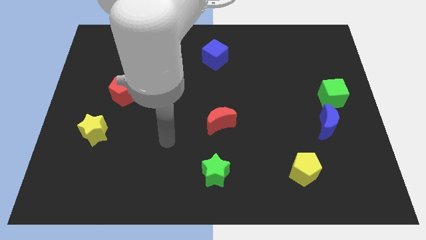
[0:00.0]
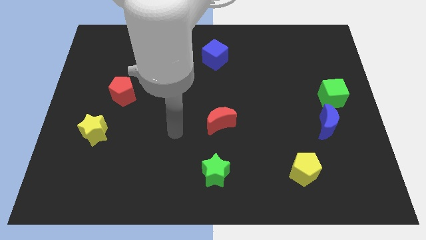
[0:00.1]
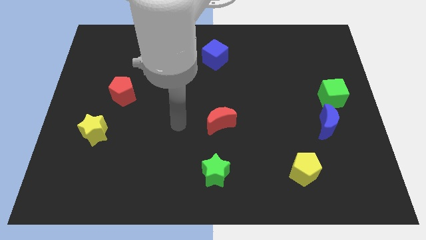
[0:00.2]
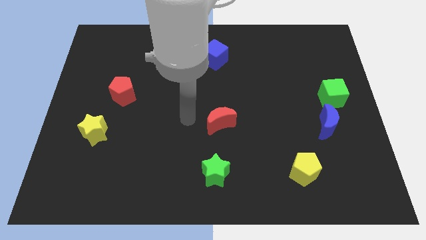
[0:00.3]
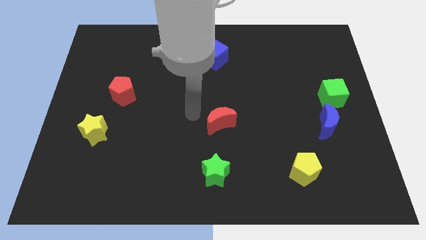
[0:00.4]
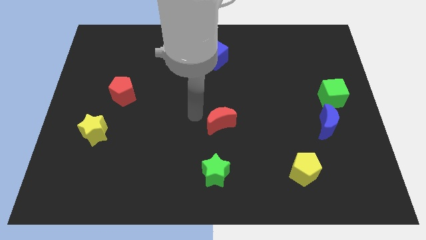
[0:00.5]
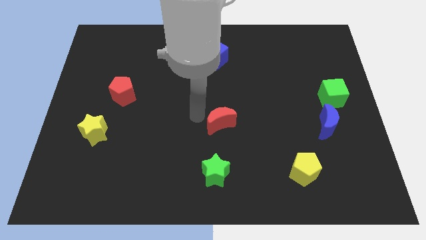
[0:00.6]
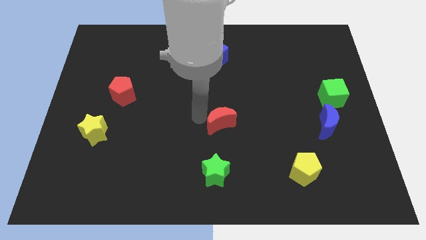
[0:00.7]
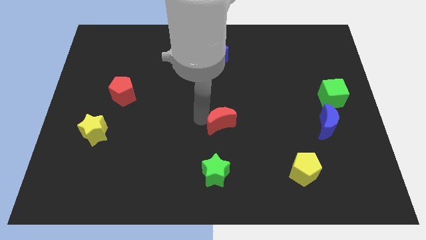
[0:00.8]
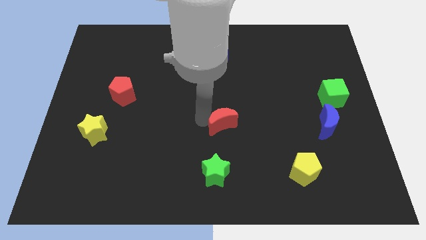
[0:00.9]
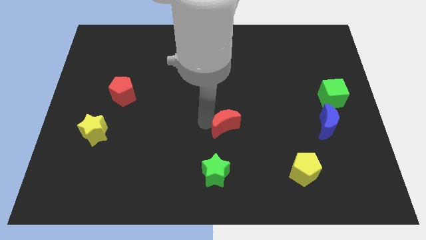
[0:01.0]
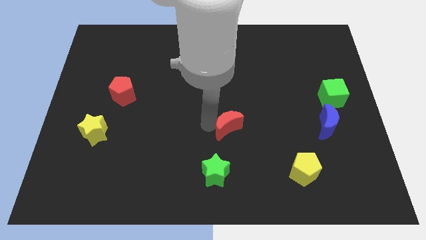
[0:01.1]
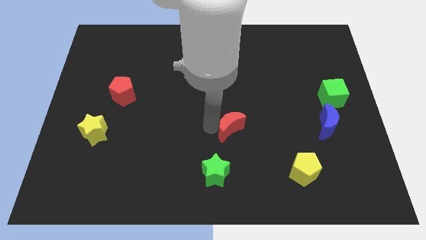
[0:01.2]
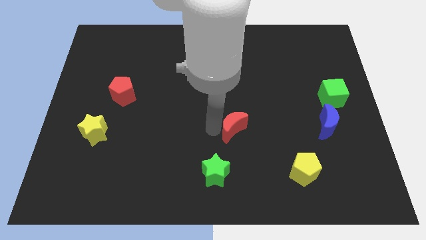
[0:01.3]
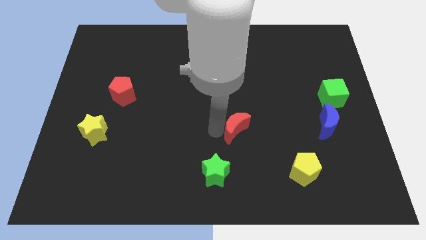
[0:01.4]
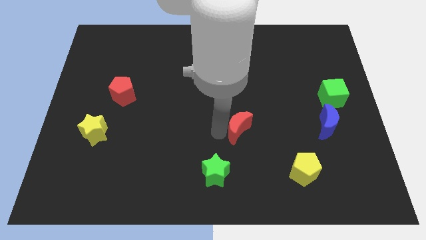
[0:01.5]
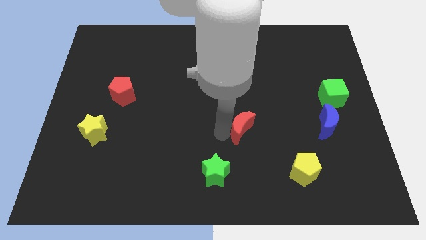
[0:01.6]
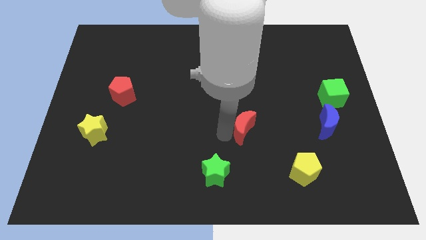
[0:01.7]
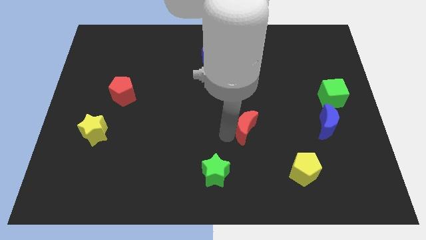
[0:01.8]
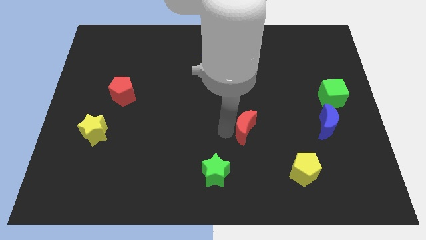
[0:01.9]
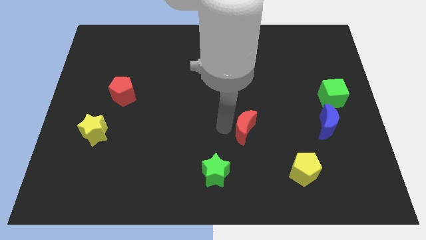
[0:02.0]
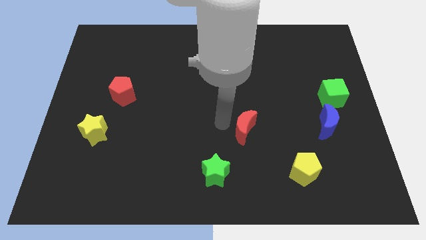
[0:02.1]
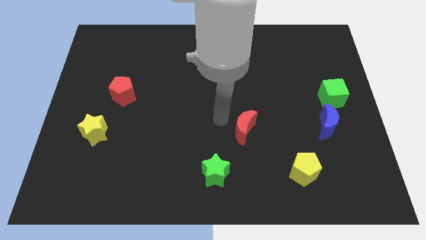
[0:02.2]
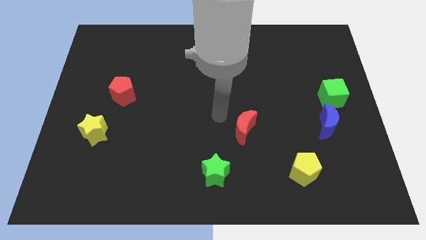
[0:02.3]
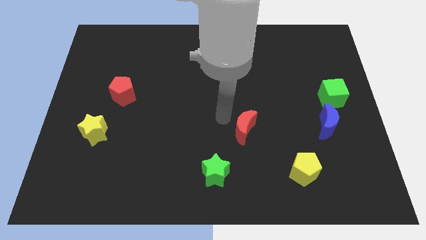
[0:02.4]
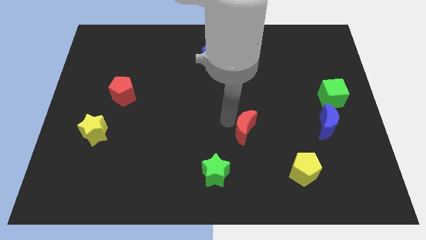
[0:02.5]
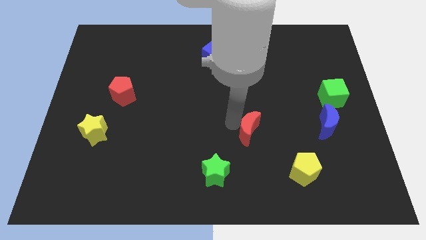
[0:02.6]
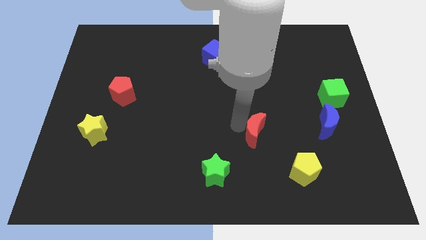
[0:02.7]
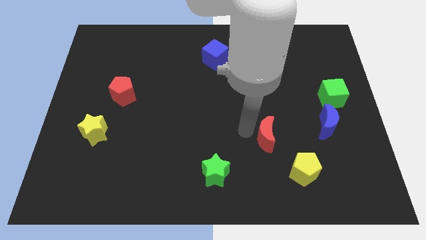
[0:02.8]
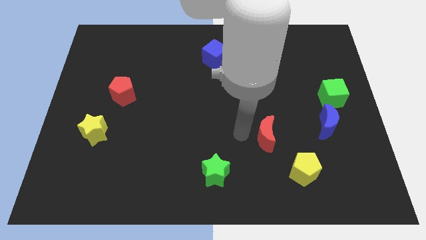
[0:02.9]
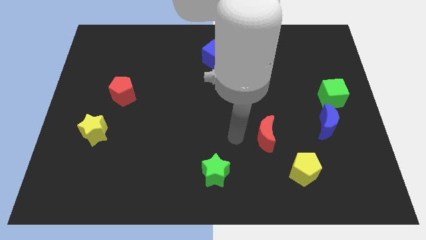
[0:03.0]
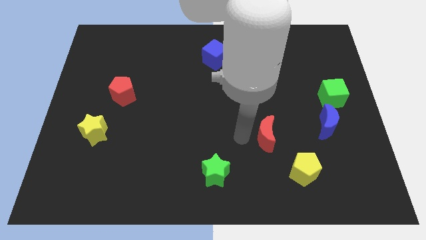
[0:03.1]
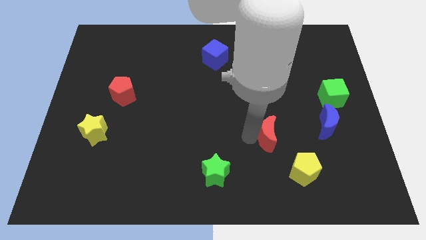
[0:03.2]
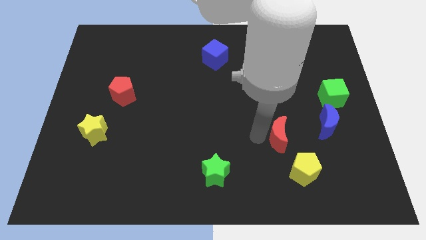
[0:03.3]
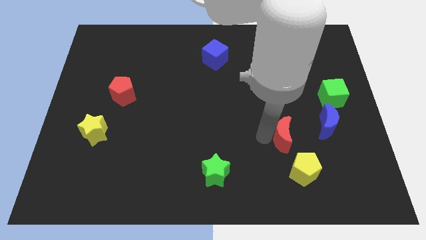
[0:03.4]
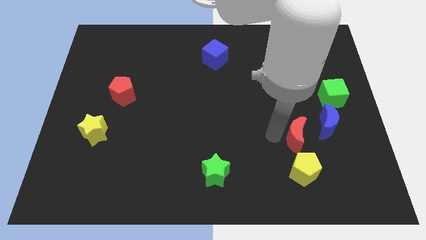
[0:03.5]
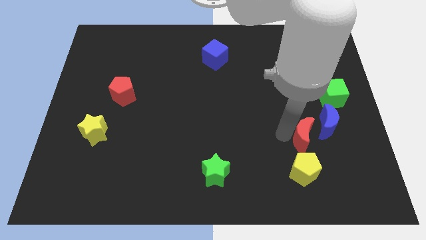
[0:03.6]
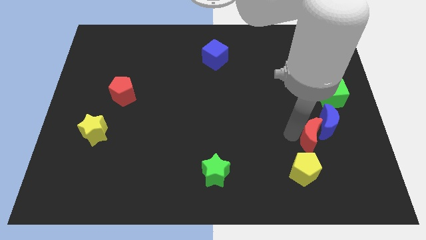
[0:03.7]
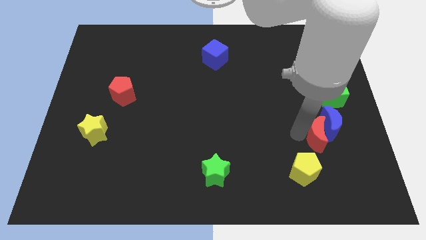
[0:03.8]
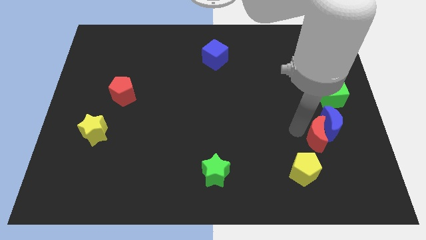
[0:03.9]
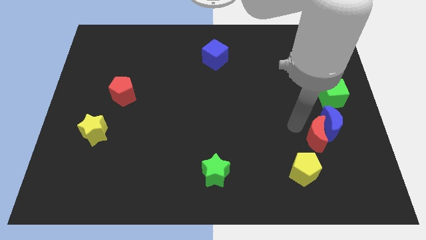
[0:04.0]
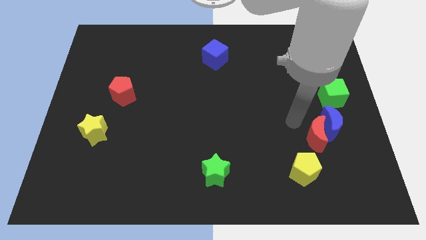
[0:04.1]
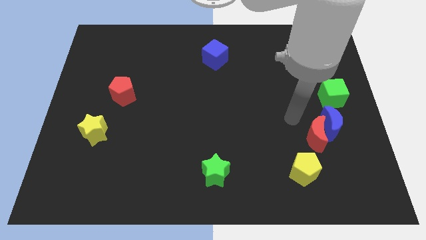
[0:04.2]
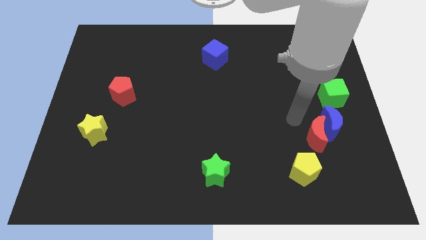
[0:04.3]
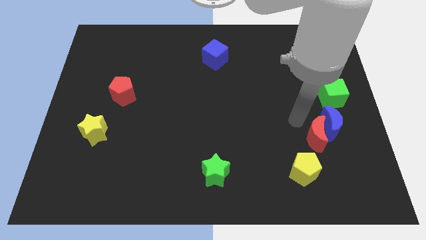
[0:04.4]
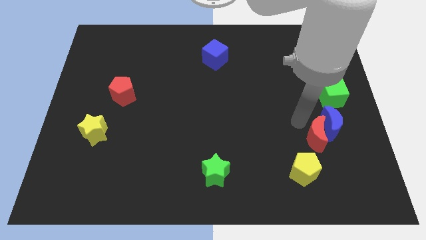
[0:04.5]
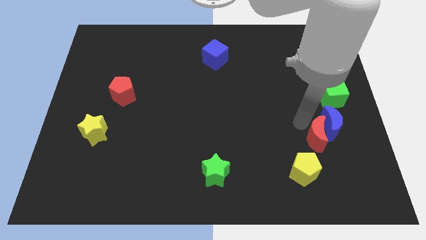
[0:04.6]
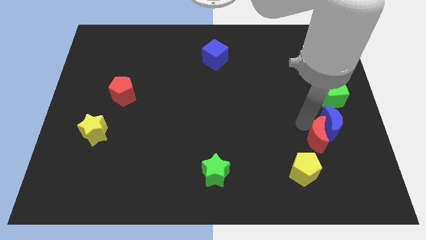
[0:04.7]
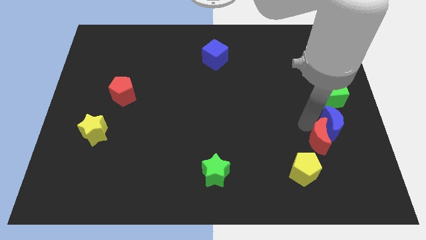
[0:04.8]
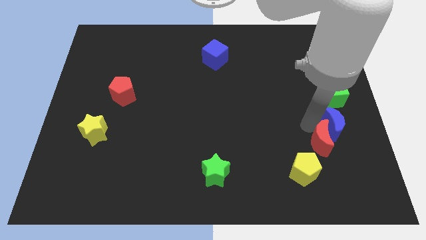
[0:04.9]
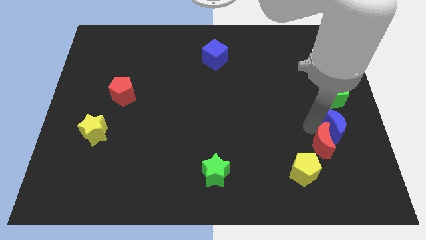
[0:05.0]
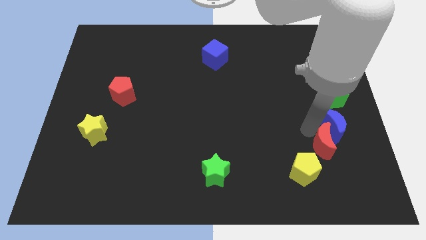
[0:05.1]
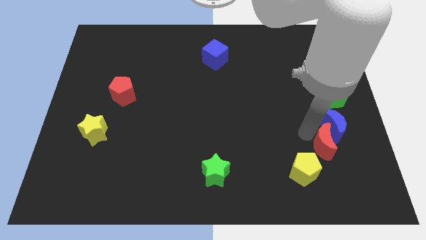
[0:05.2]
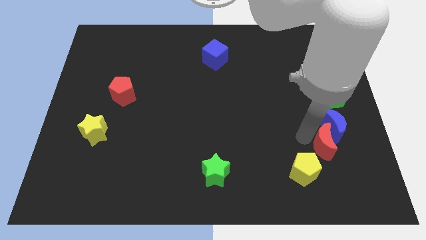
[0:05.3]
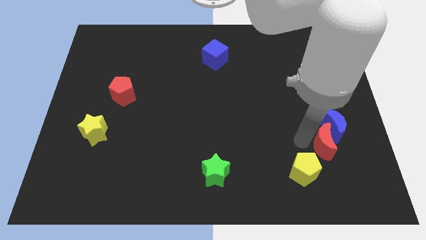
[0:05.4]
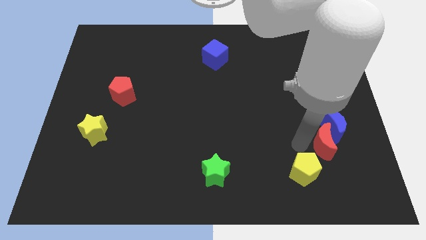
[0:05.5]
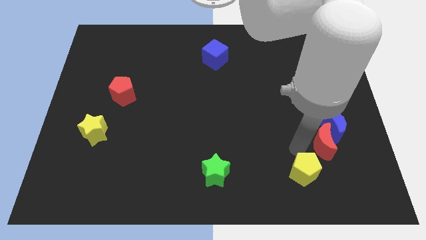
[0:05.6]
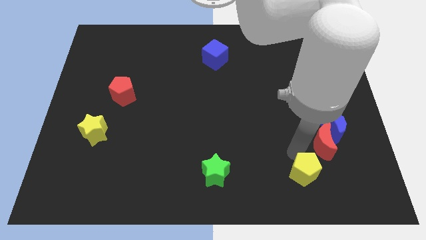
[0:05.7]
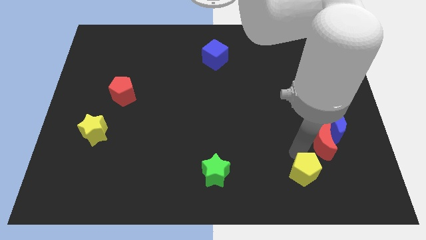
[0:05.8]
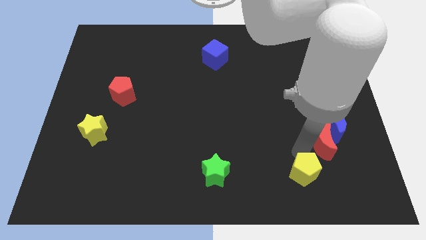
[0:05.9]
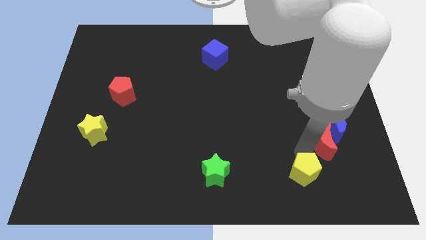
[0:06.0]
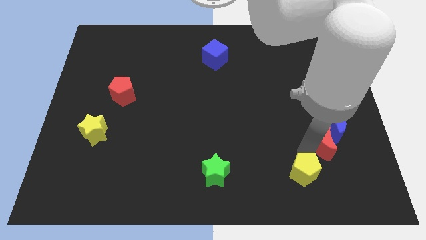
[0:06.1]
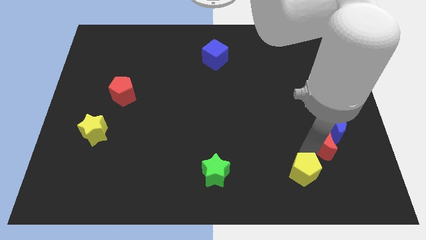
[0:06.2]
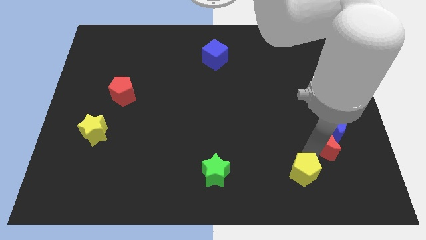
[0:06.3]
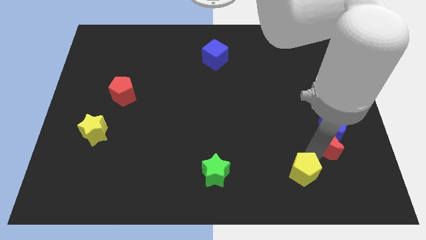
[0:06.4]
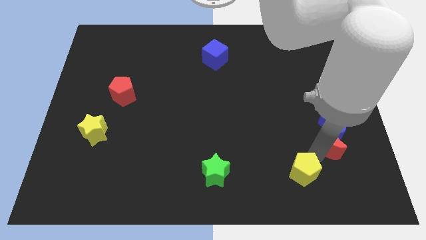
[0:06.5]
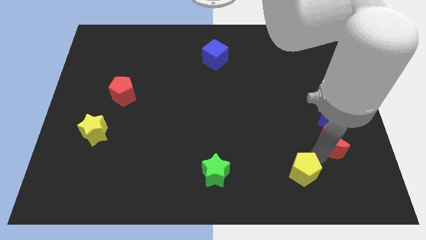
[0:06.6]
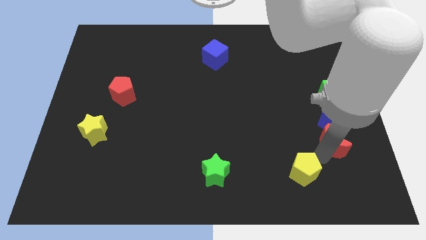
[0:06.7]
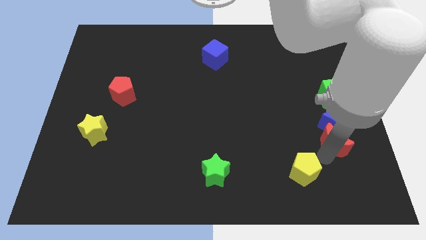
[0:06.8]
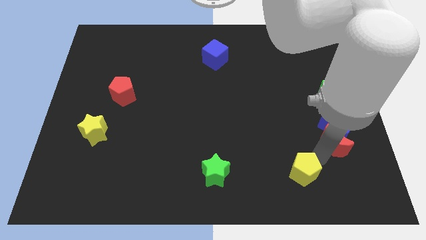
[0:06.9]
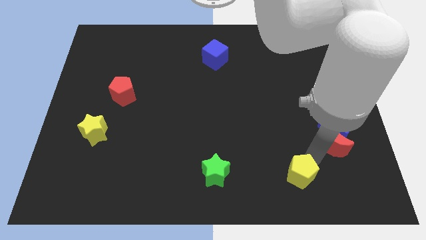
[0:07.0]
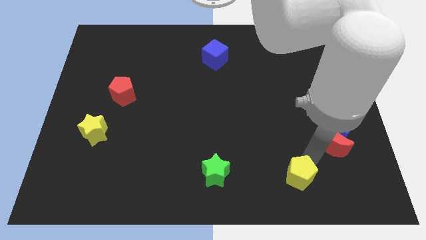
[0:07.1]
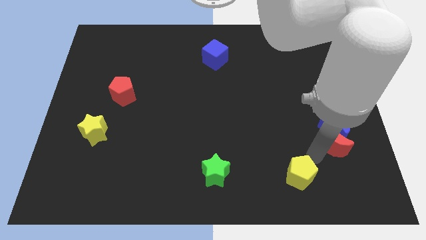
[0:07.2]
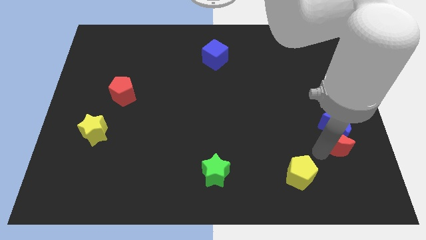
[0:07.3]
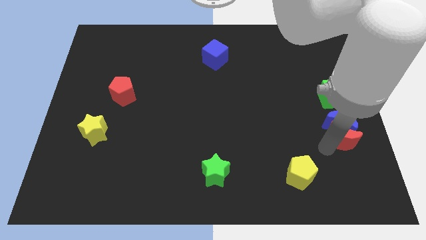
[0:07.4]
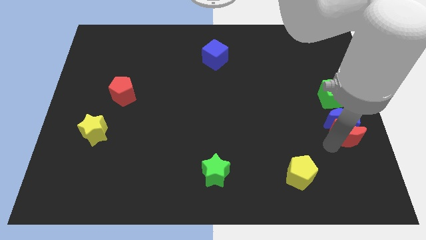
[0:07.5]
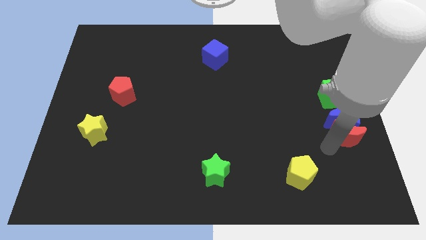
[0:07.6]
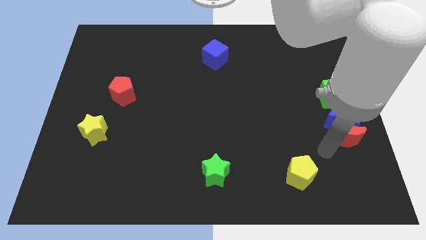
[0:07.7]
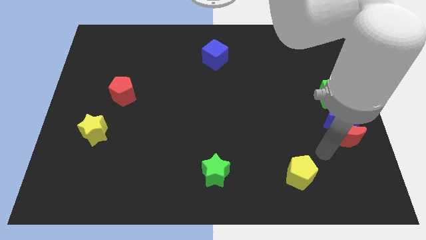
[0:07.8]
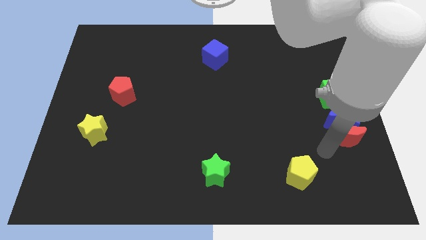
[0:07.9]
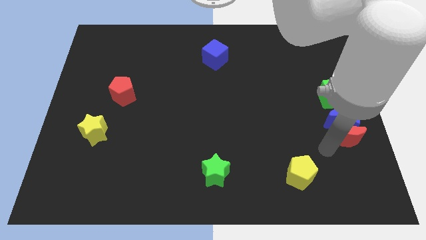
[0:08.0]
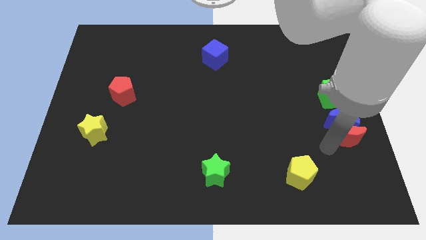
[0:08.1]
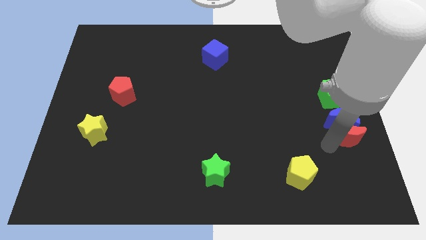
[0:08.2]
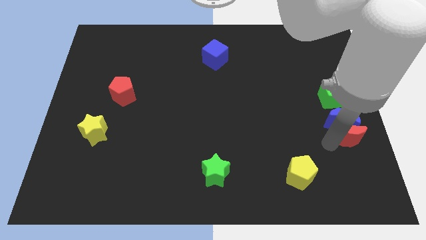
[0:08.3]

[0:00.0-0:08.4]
slide the red moon to the right side of the board
